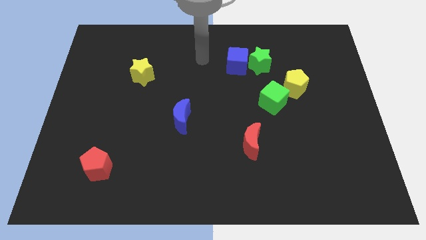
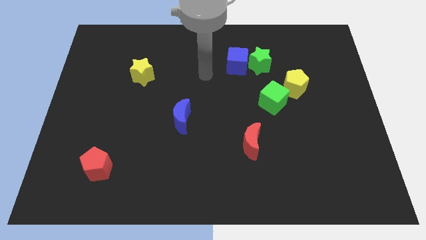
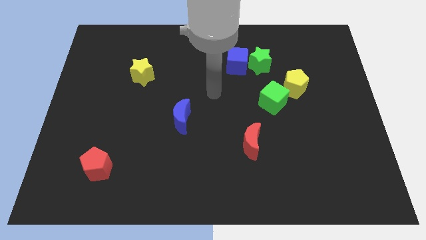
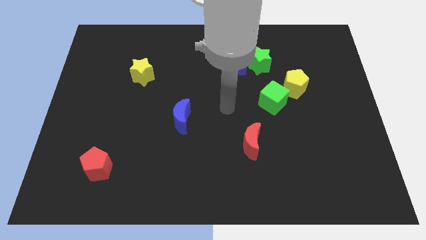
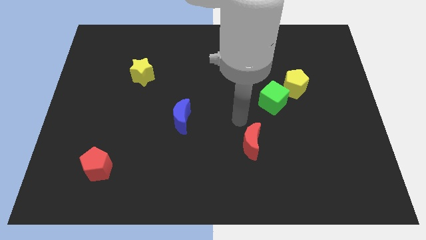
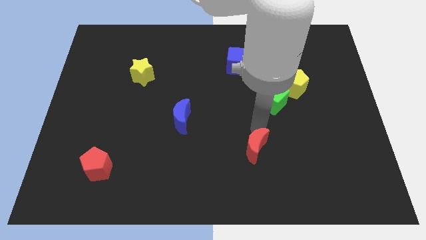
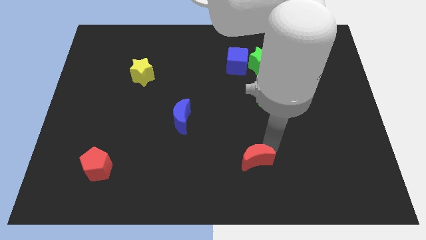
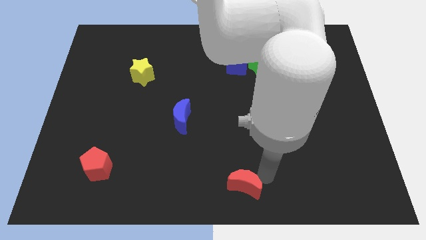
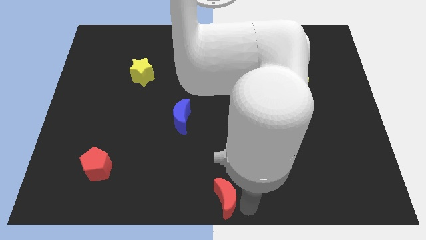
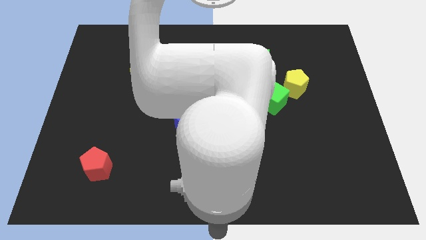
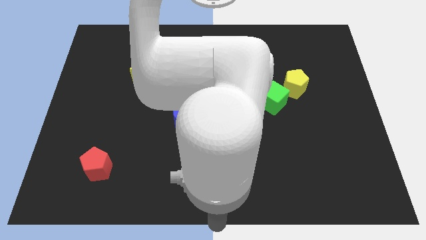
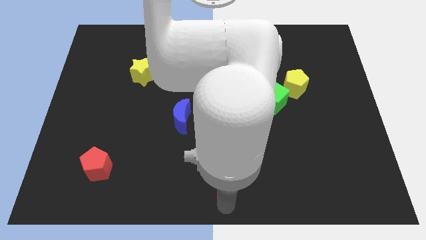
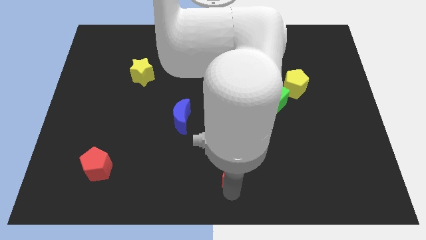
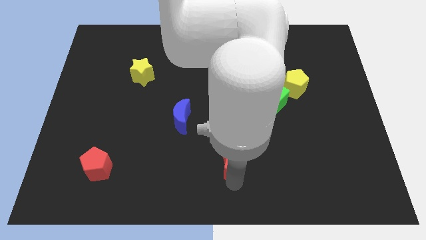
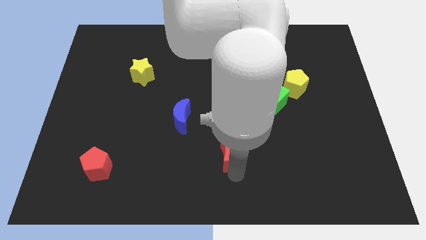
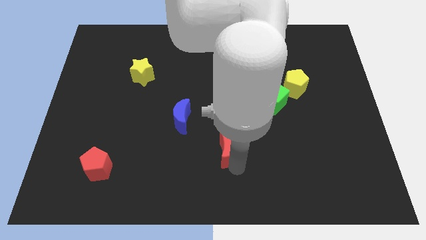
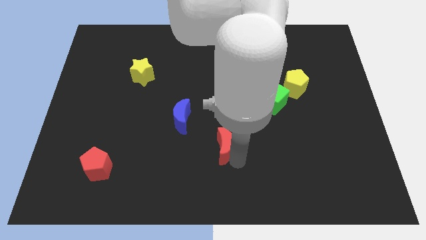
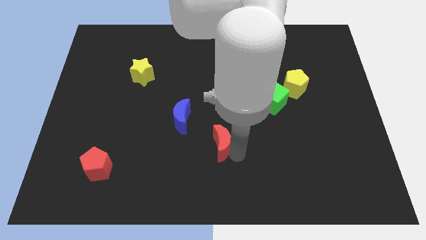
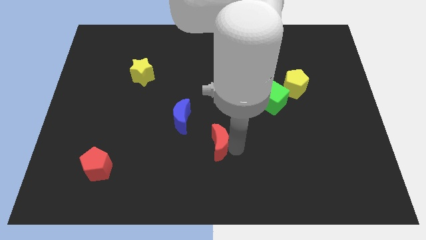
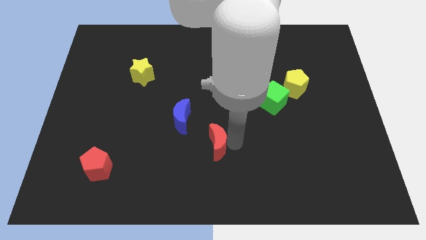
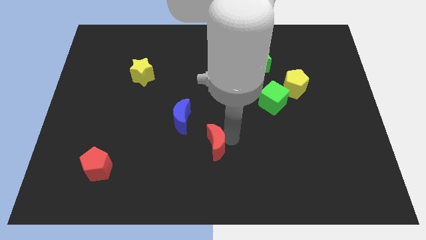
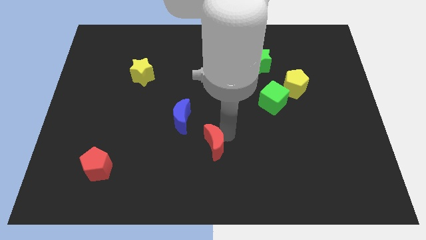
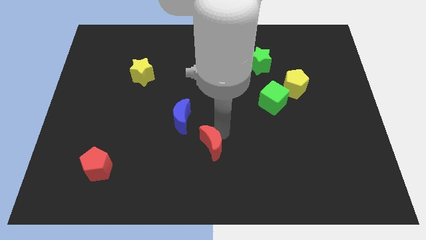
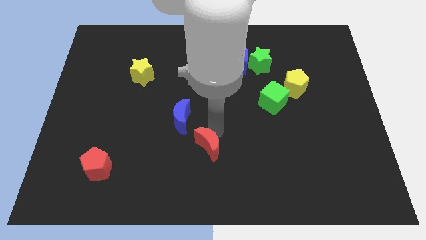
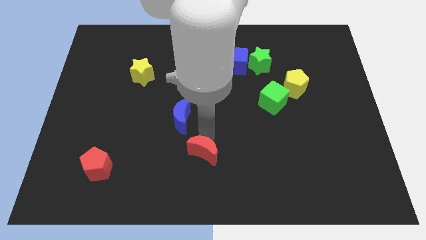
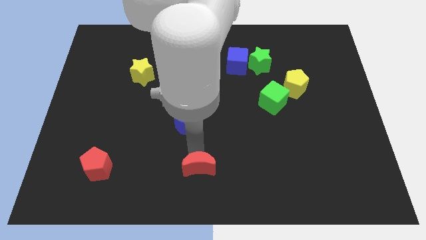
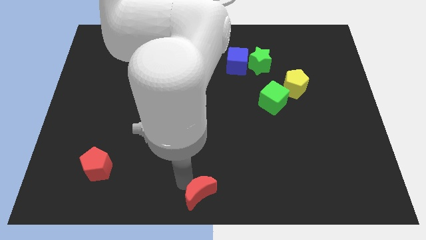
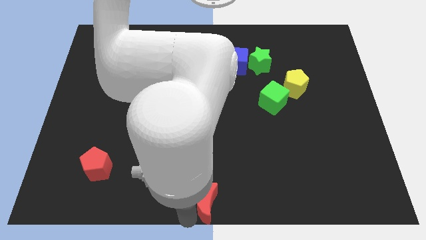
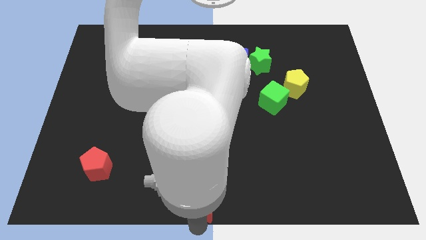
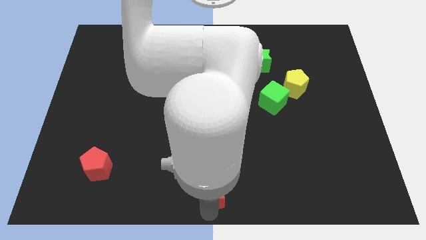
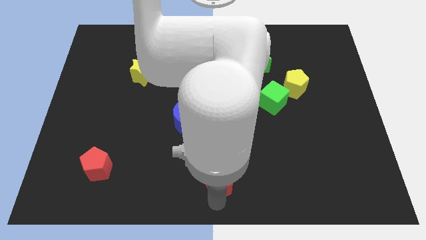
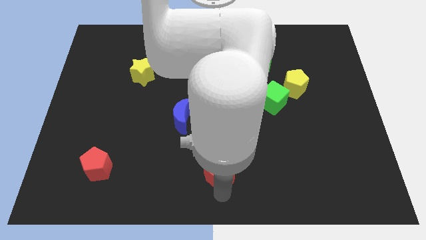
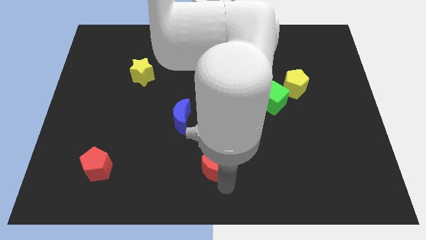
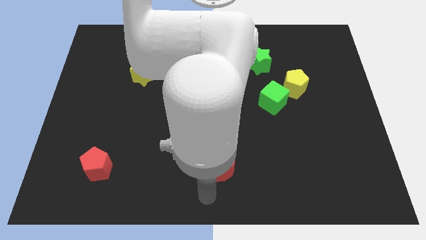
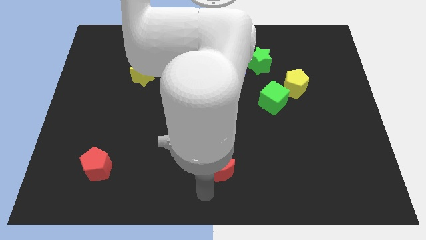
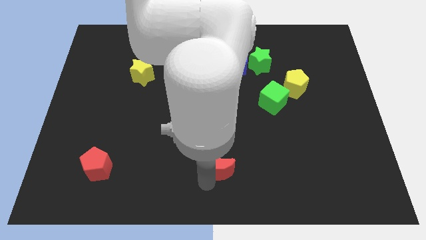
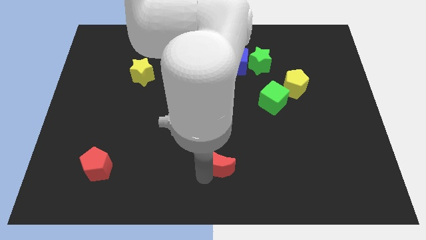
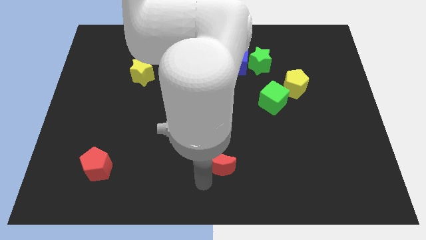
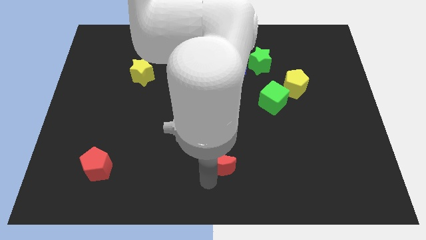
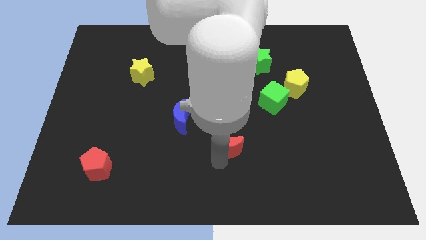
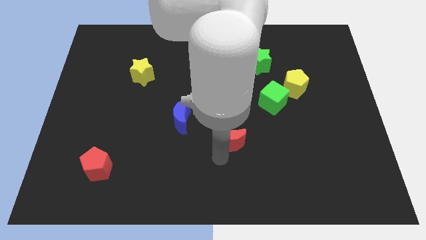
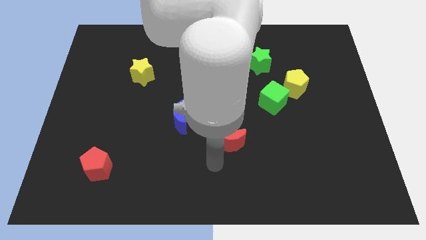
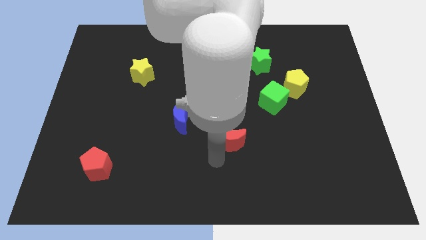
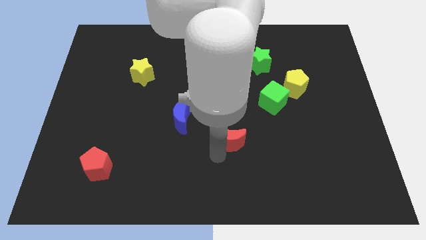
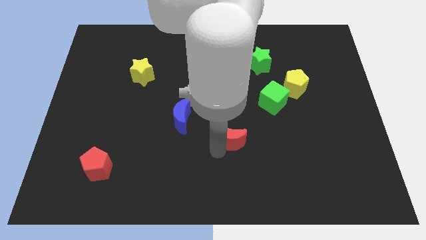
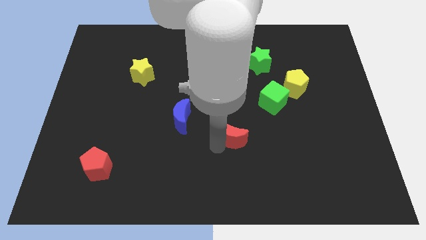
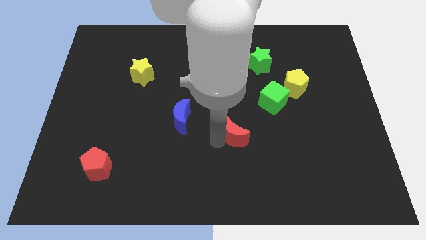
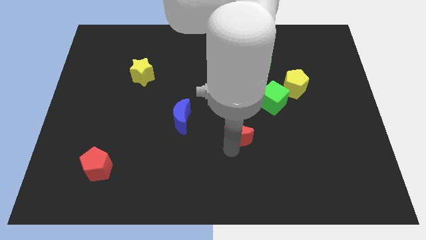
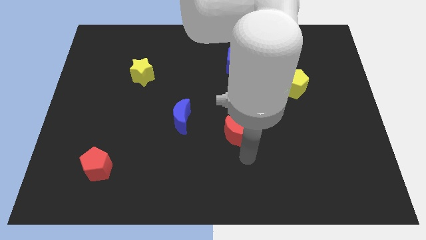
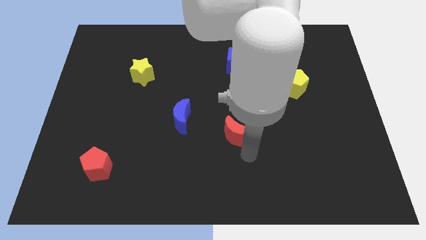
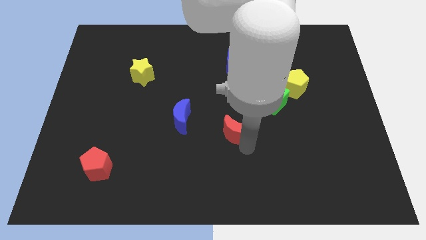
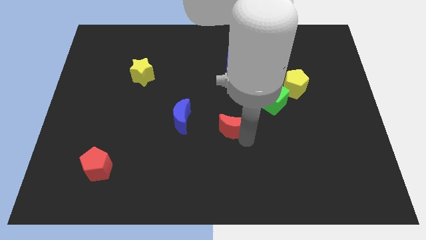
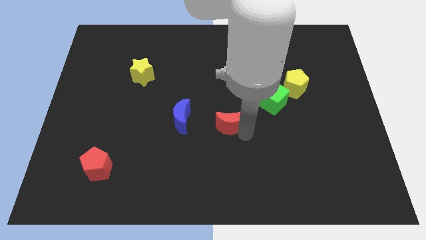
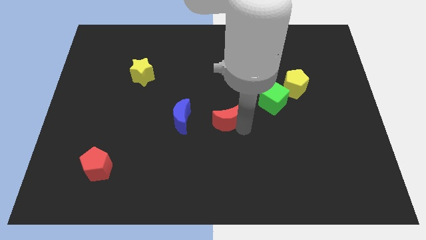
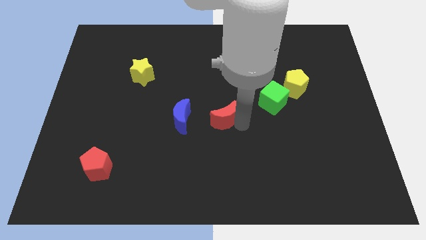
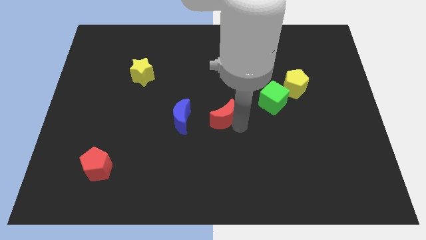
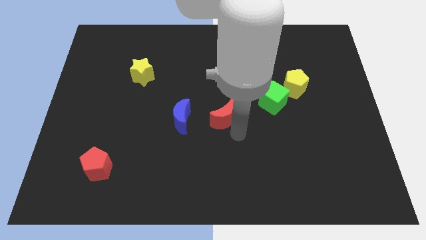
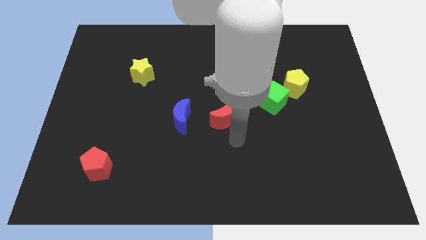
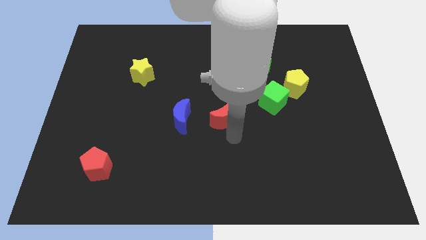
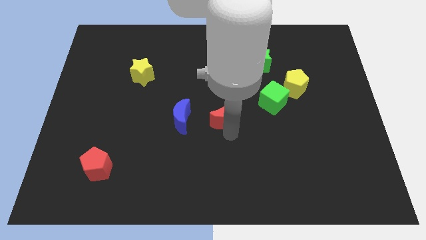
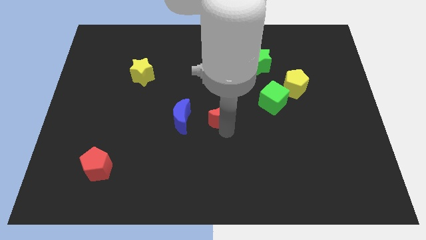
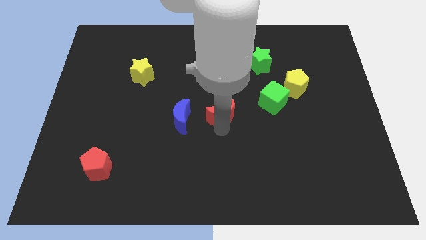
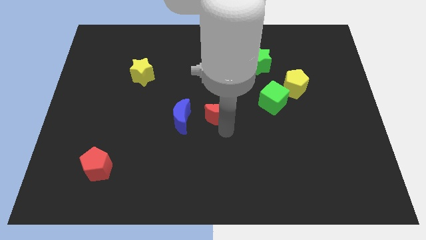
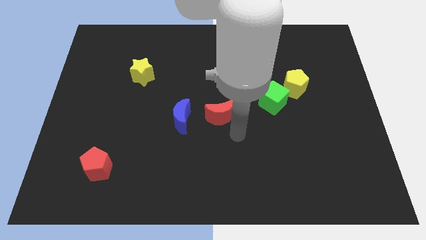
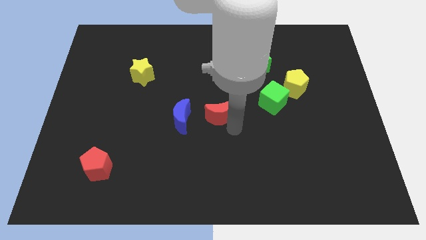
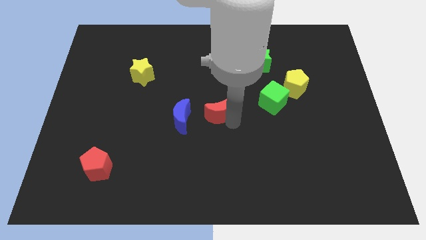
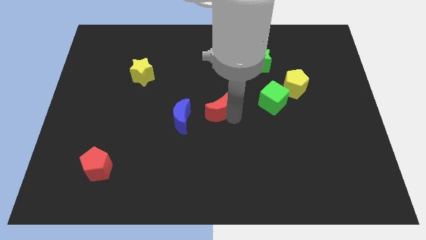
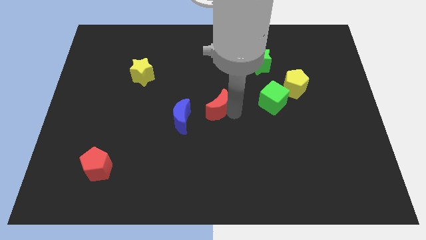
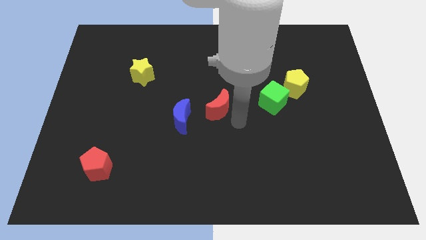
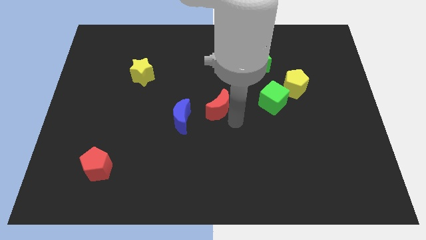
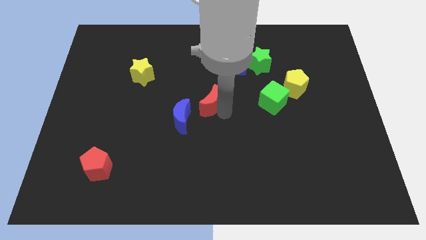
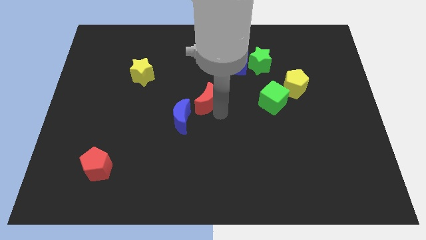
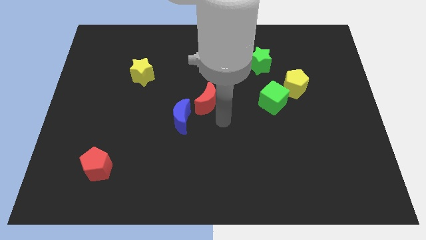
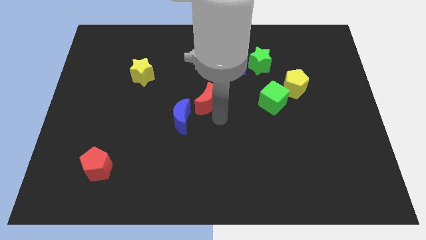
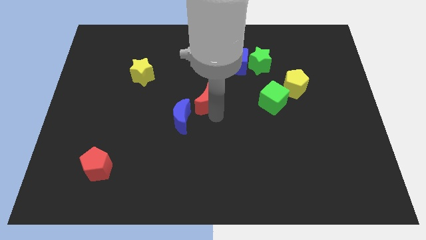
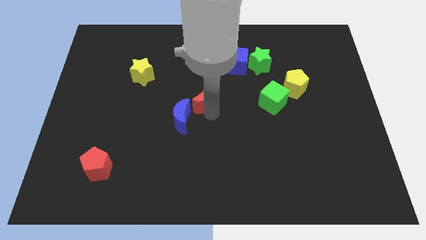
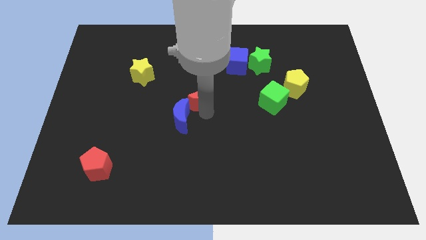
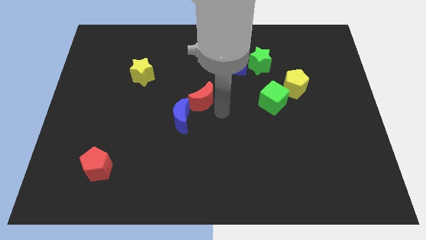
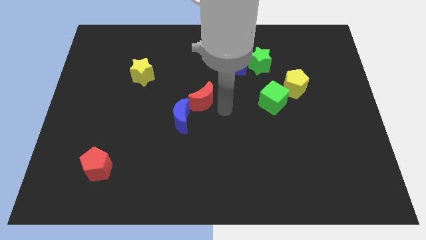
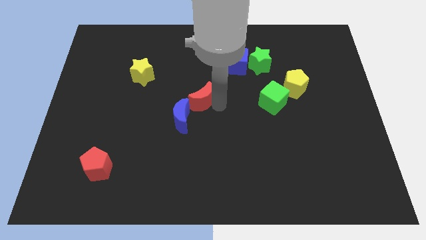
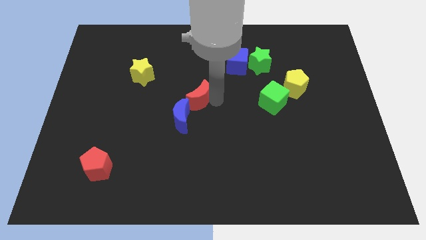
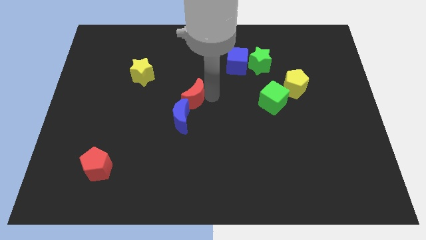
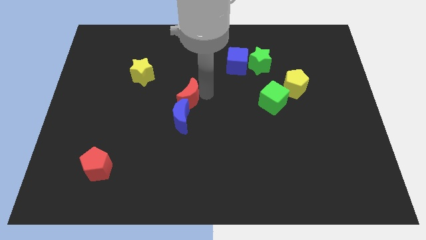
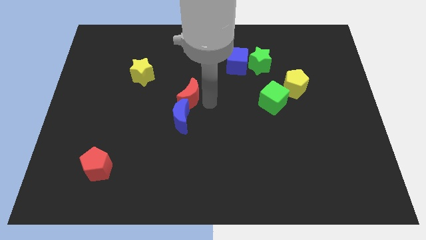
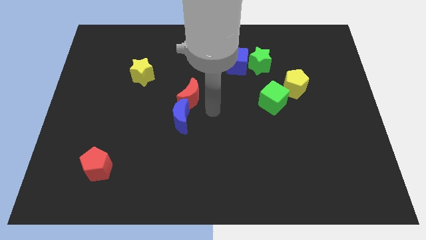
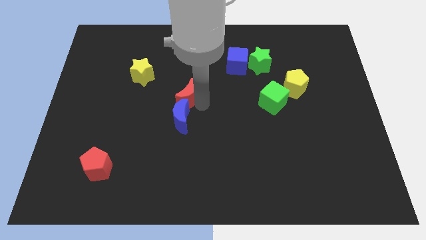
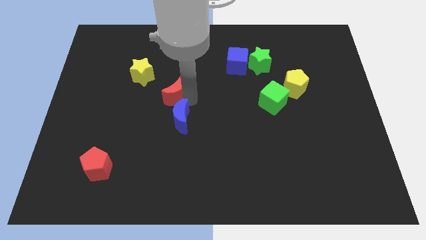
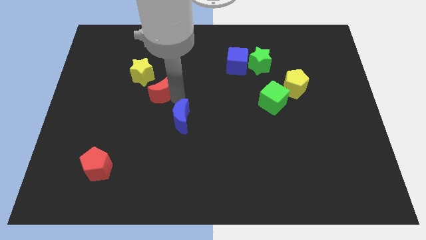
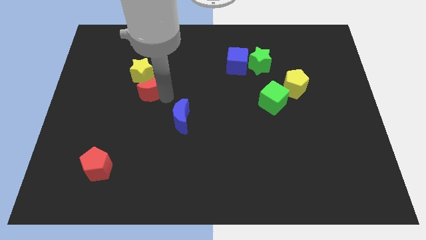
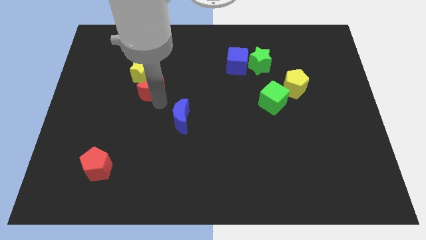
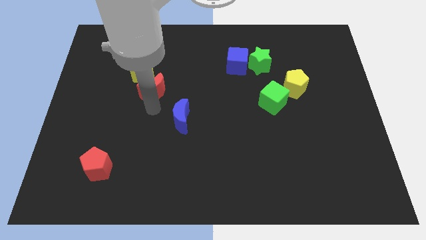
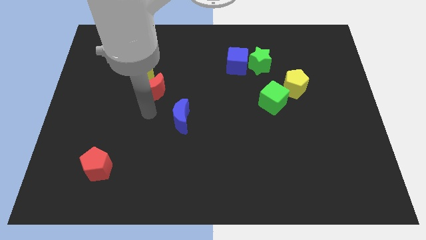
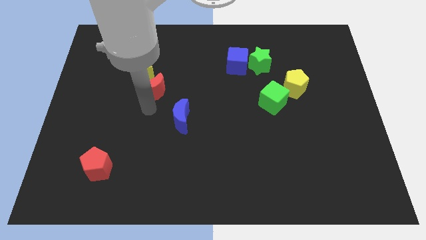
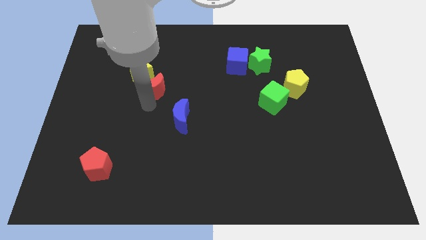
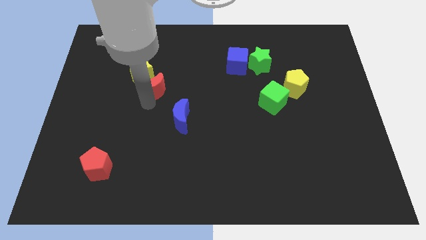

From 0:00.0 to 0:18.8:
push the red moon to the yellow star
